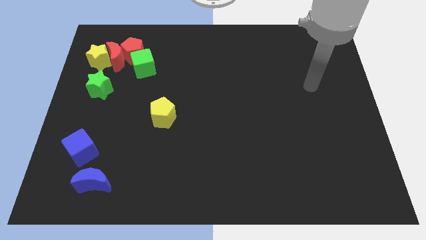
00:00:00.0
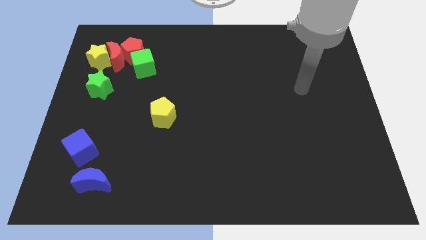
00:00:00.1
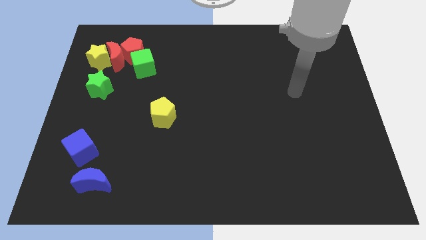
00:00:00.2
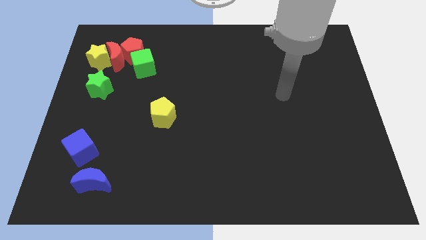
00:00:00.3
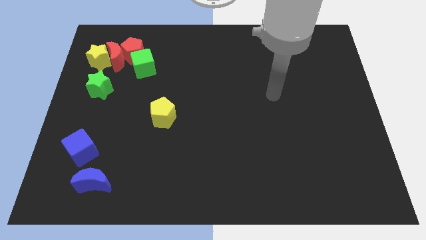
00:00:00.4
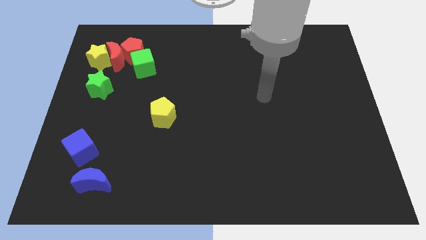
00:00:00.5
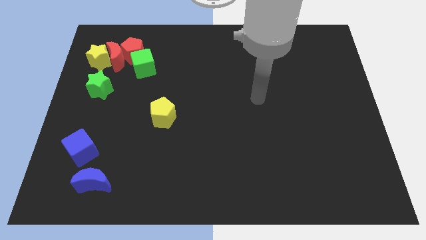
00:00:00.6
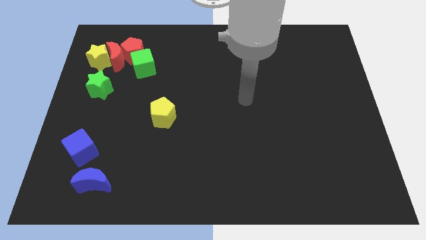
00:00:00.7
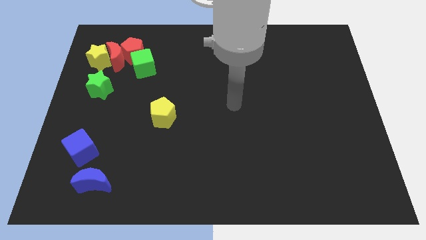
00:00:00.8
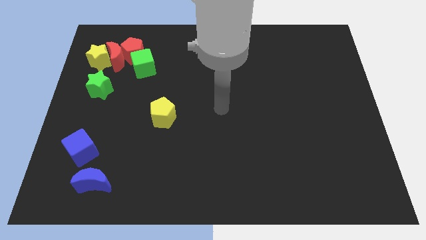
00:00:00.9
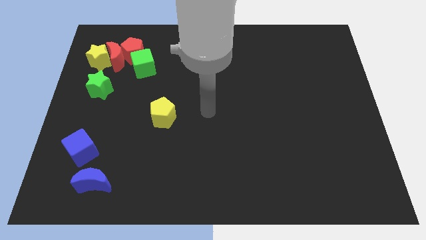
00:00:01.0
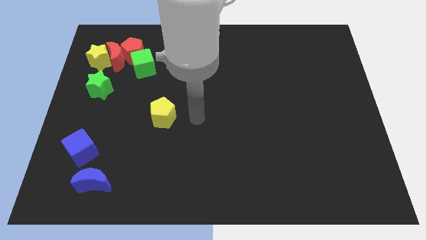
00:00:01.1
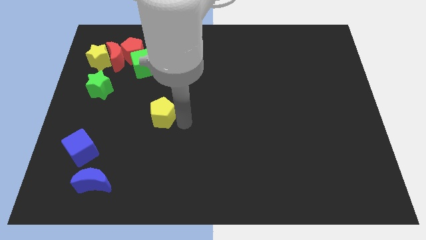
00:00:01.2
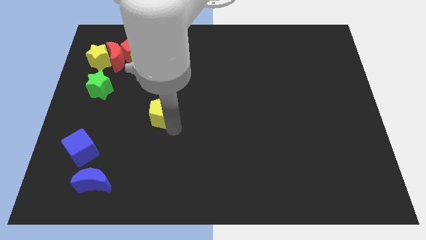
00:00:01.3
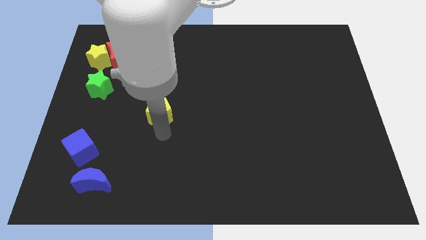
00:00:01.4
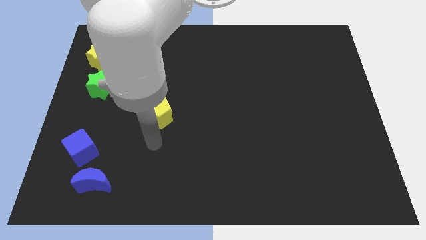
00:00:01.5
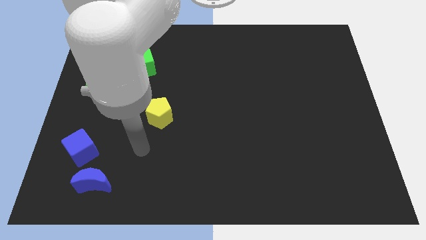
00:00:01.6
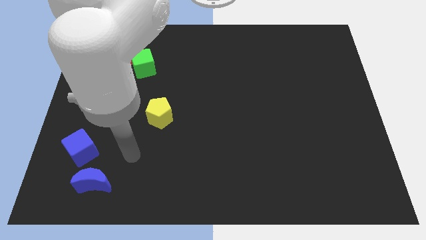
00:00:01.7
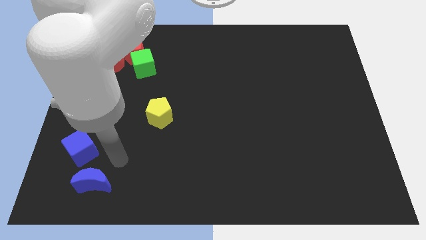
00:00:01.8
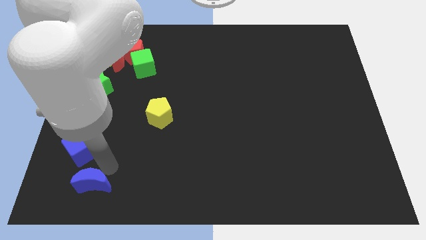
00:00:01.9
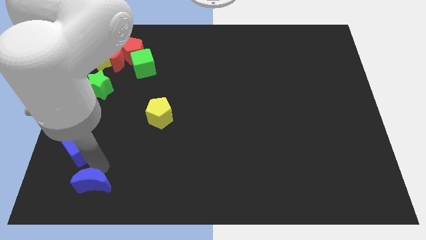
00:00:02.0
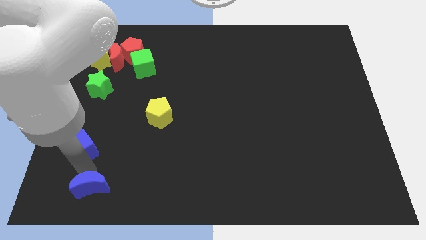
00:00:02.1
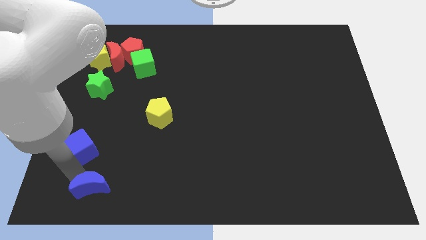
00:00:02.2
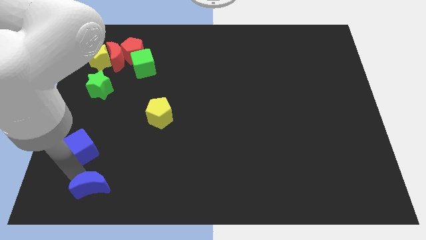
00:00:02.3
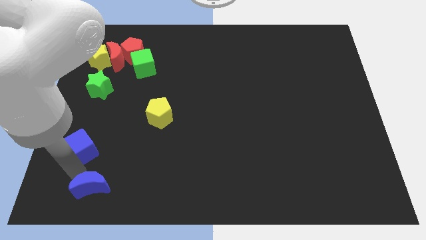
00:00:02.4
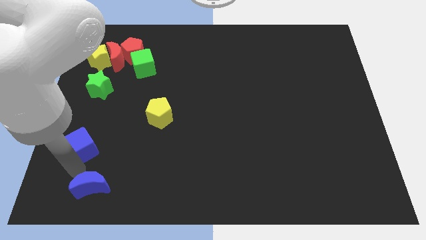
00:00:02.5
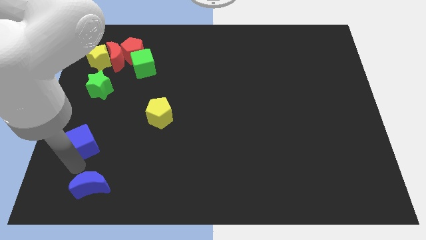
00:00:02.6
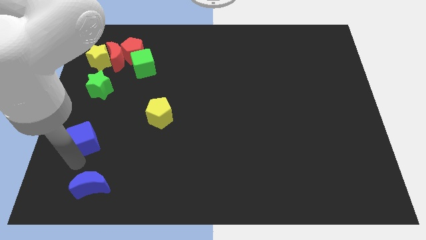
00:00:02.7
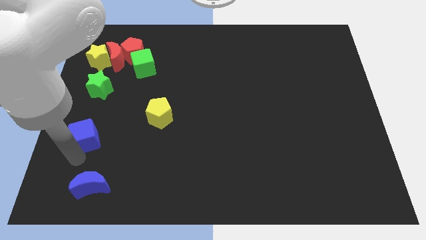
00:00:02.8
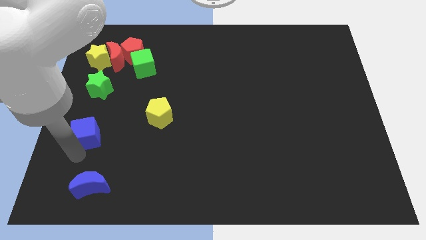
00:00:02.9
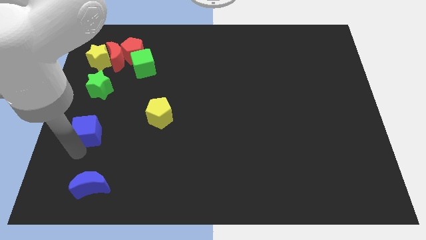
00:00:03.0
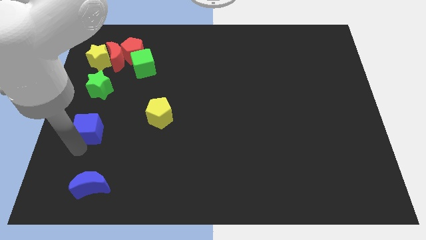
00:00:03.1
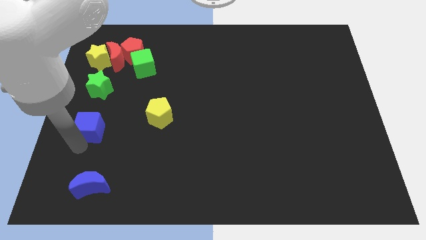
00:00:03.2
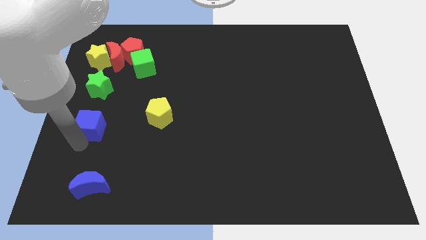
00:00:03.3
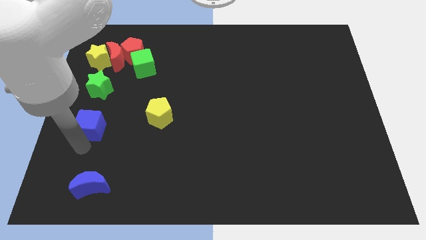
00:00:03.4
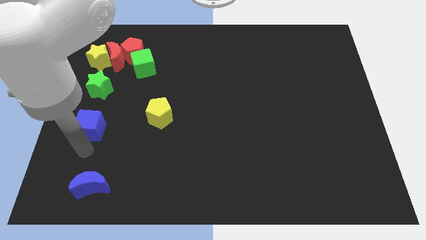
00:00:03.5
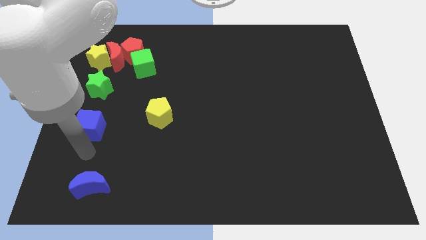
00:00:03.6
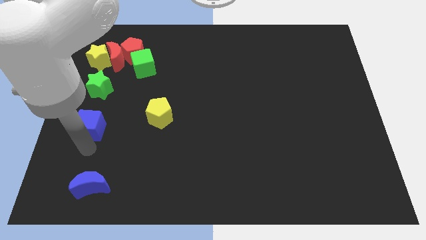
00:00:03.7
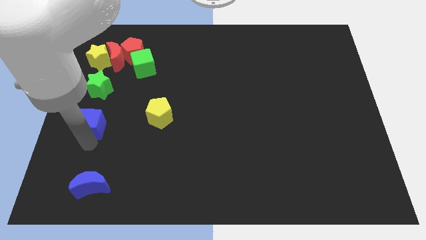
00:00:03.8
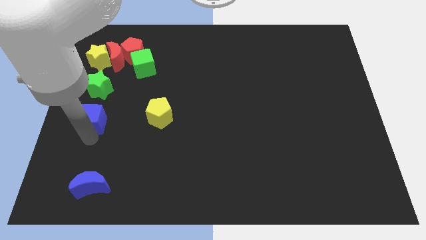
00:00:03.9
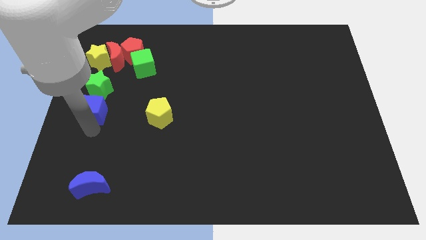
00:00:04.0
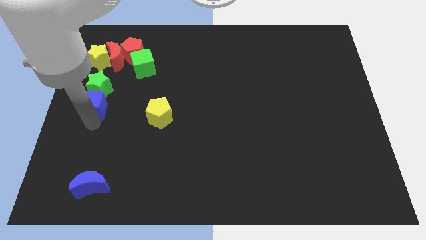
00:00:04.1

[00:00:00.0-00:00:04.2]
push the blue cube close to the green star

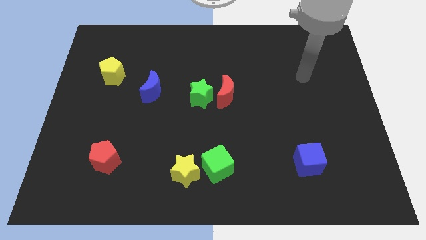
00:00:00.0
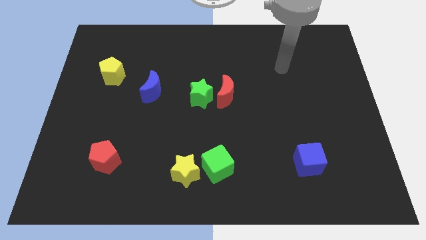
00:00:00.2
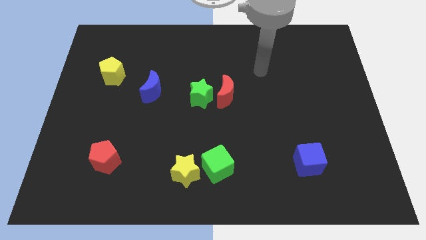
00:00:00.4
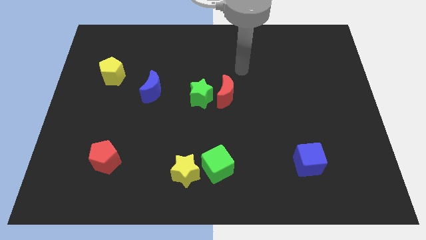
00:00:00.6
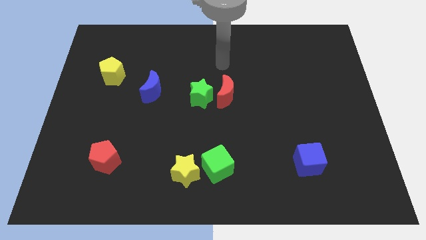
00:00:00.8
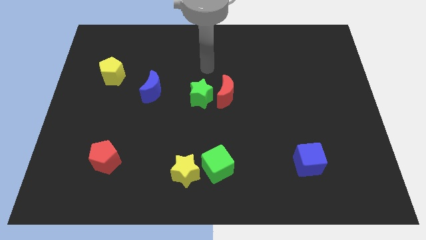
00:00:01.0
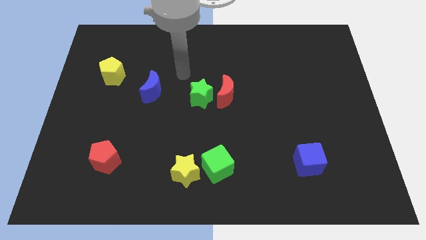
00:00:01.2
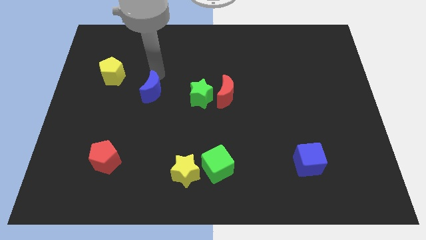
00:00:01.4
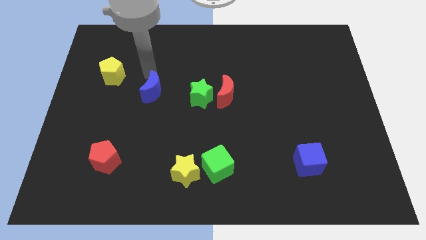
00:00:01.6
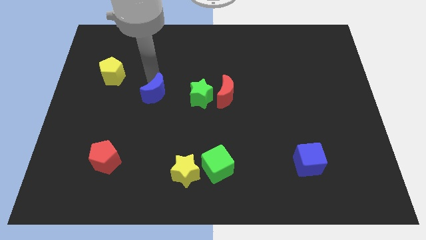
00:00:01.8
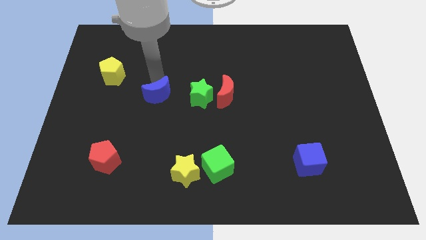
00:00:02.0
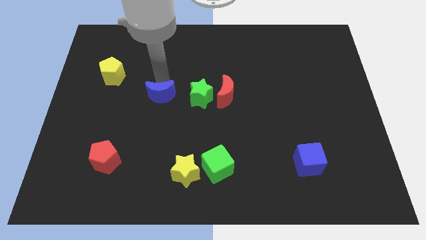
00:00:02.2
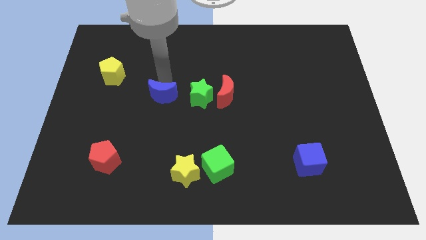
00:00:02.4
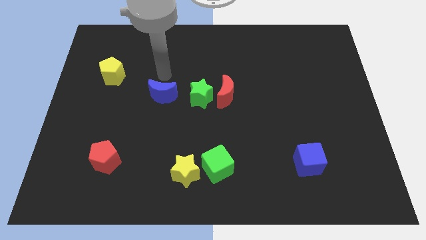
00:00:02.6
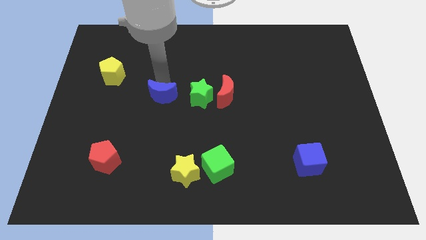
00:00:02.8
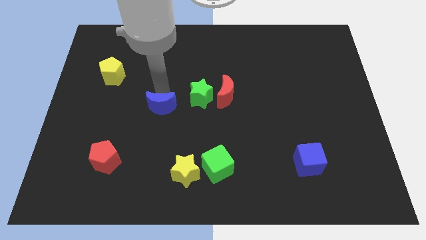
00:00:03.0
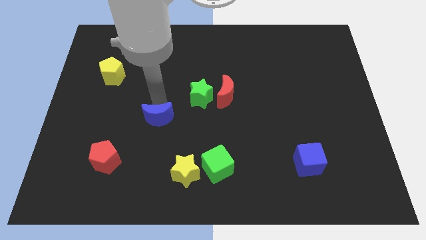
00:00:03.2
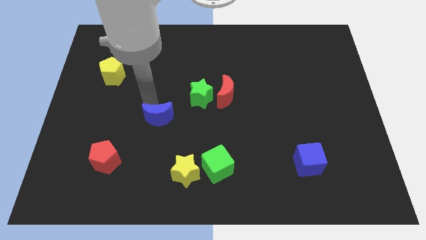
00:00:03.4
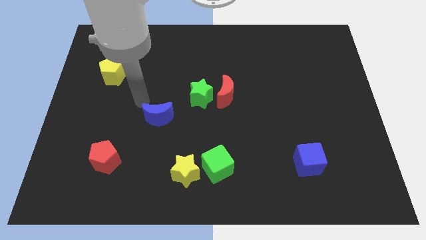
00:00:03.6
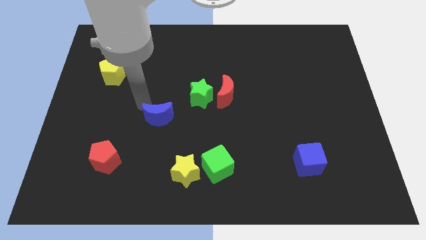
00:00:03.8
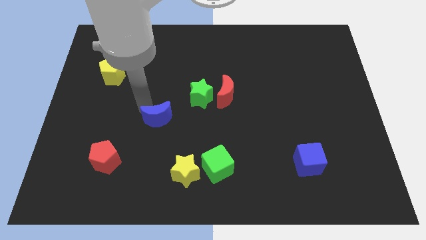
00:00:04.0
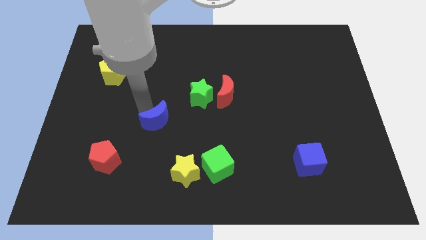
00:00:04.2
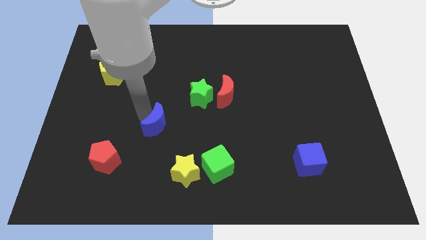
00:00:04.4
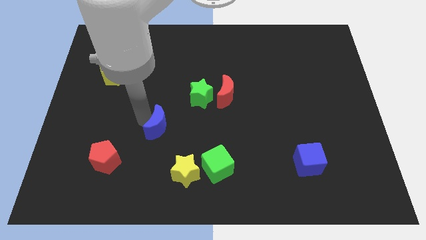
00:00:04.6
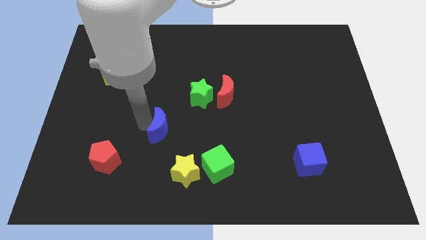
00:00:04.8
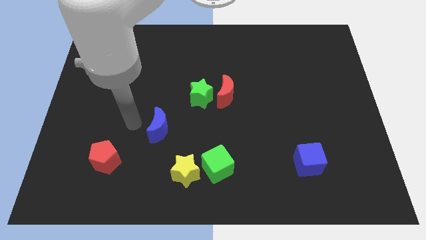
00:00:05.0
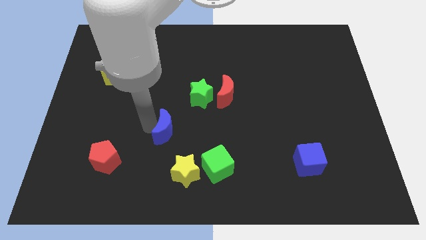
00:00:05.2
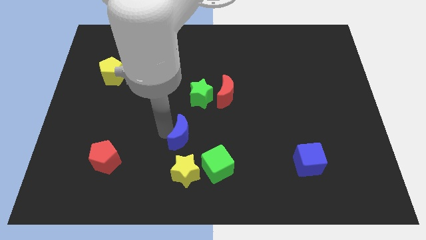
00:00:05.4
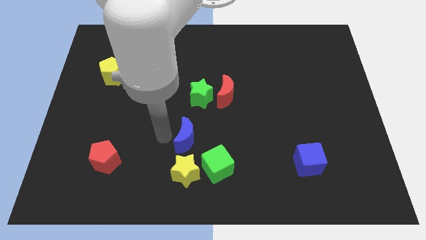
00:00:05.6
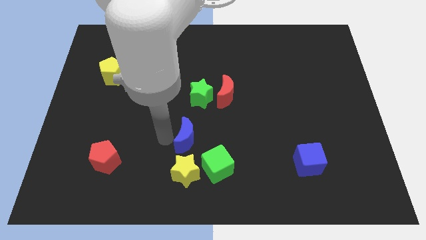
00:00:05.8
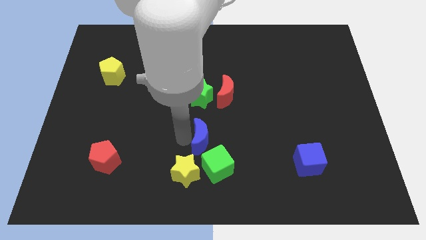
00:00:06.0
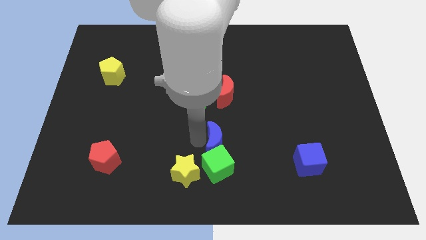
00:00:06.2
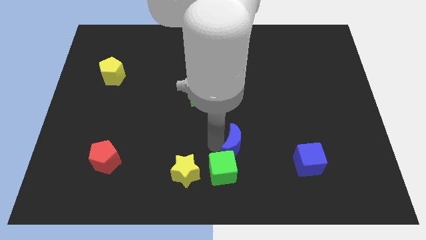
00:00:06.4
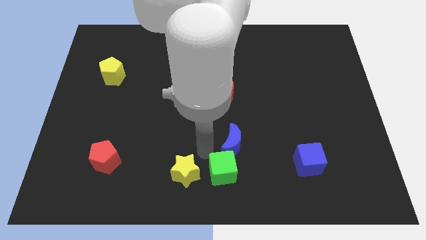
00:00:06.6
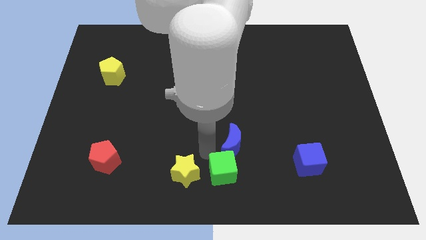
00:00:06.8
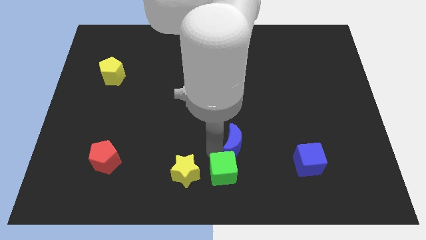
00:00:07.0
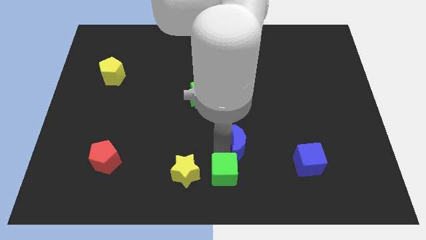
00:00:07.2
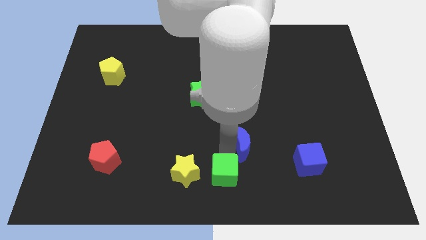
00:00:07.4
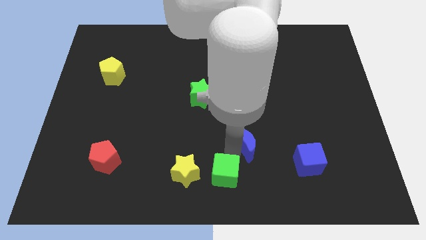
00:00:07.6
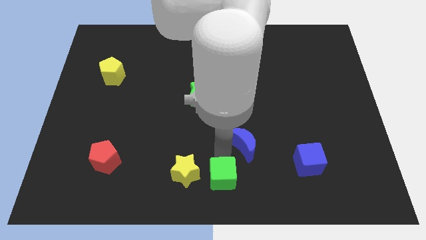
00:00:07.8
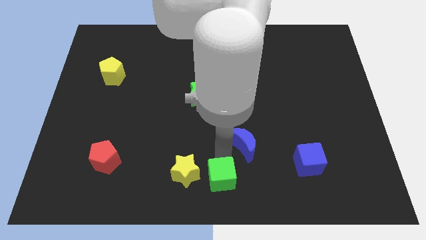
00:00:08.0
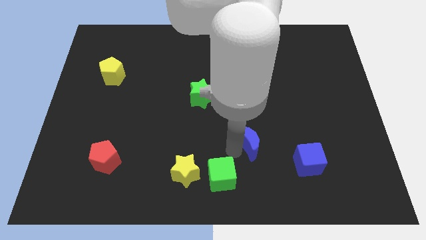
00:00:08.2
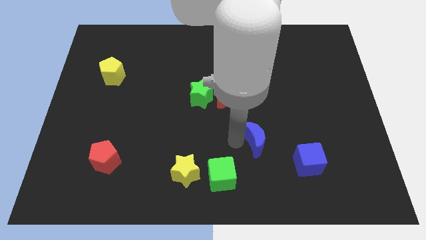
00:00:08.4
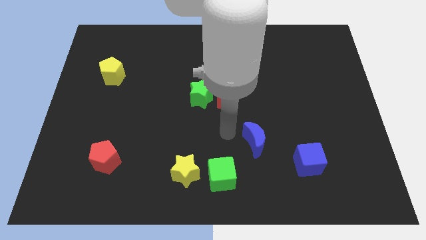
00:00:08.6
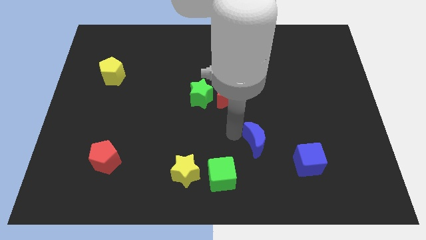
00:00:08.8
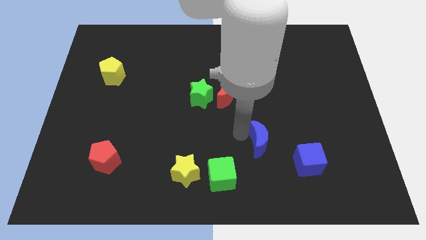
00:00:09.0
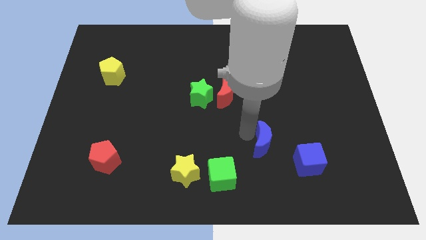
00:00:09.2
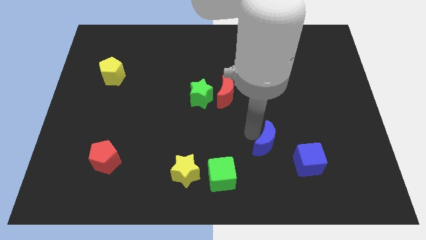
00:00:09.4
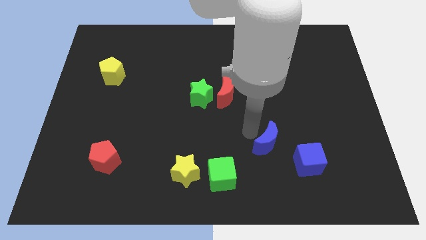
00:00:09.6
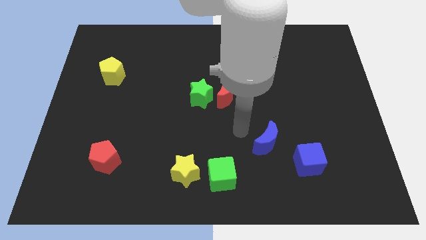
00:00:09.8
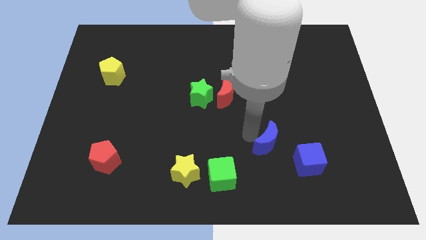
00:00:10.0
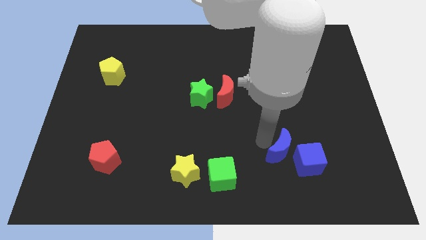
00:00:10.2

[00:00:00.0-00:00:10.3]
slide the blue moon close to the blue cube
